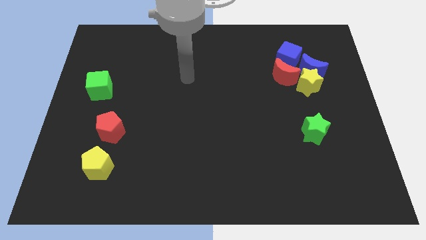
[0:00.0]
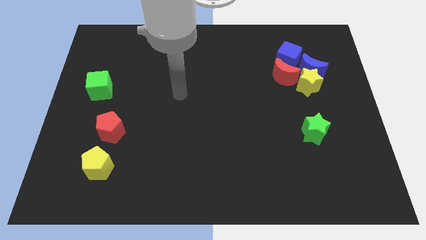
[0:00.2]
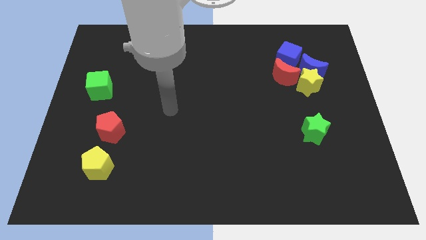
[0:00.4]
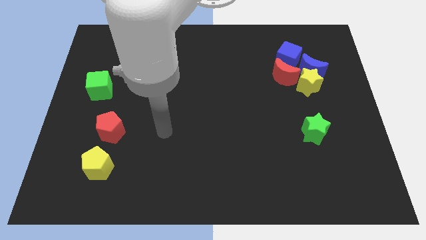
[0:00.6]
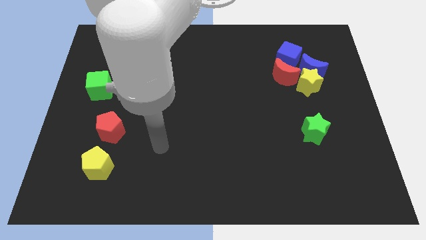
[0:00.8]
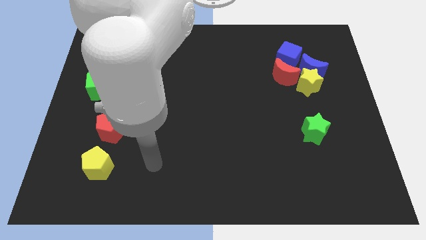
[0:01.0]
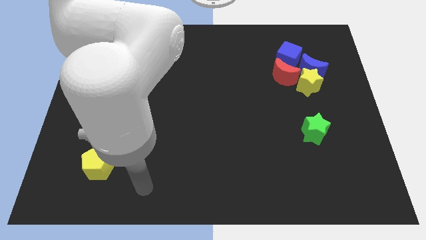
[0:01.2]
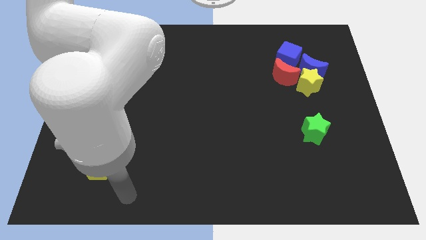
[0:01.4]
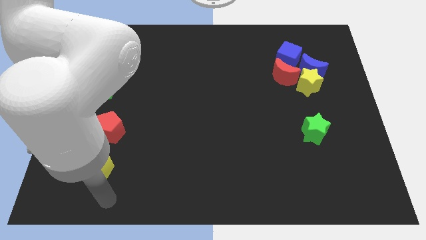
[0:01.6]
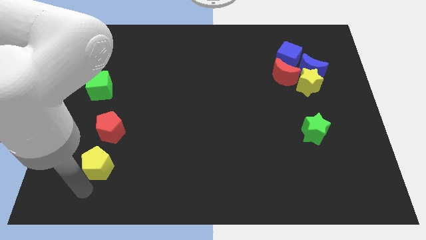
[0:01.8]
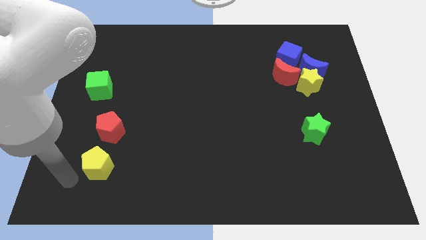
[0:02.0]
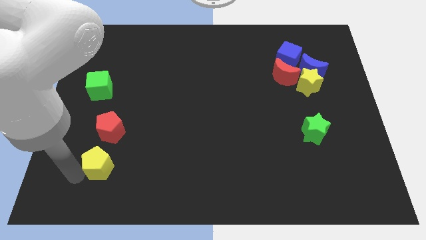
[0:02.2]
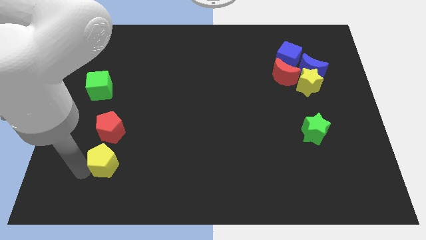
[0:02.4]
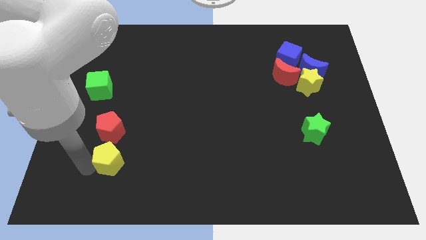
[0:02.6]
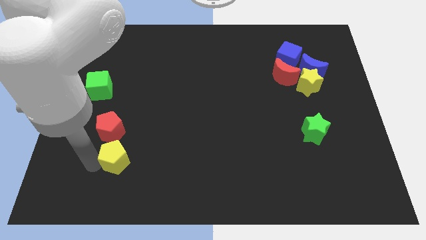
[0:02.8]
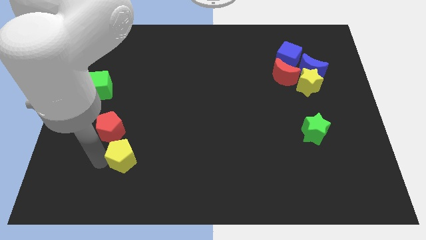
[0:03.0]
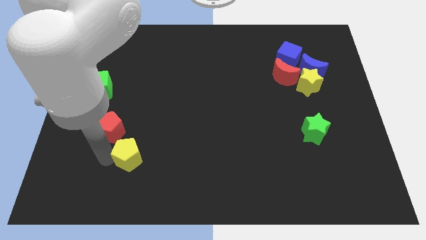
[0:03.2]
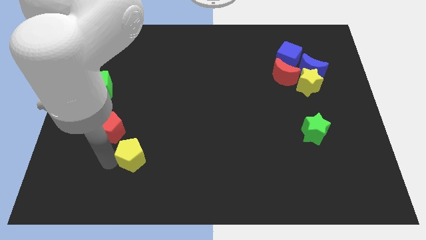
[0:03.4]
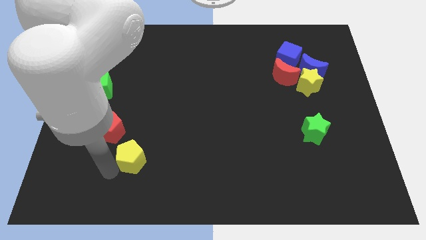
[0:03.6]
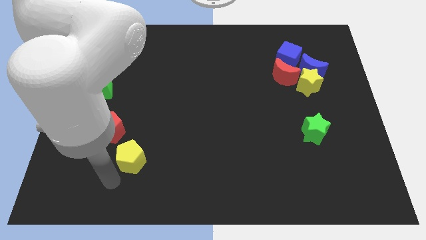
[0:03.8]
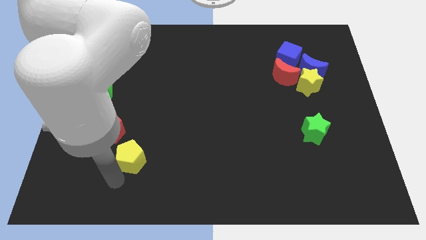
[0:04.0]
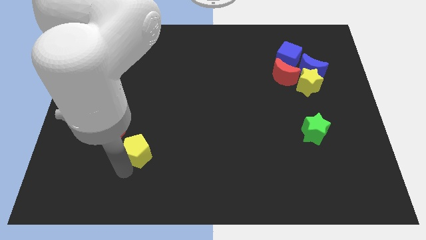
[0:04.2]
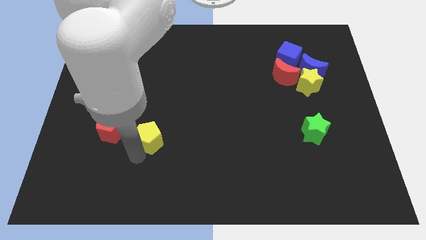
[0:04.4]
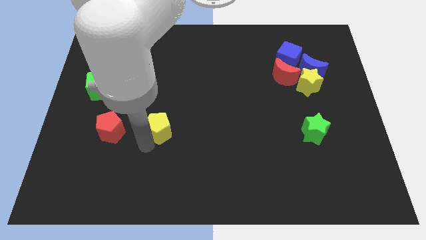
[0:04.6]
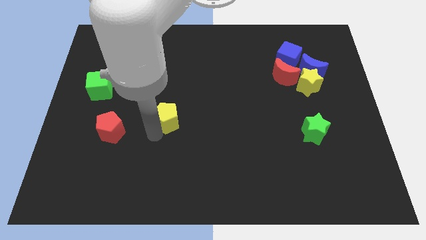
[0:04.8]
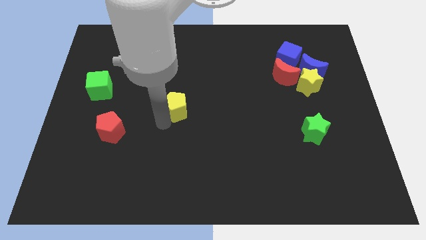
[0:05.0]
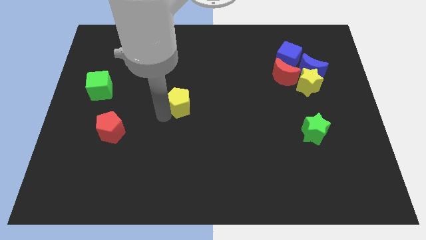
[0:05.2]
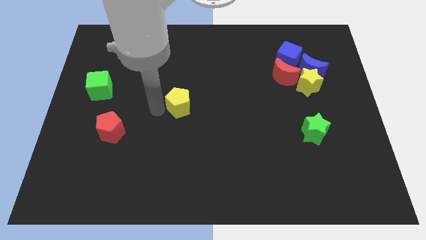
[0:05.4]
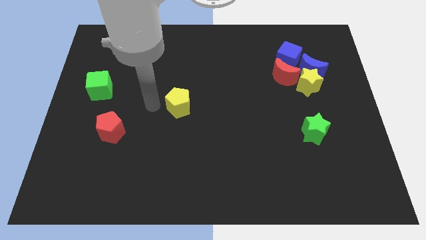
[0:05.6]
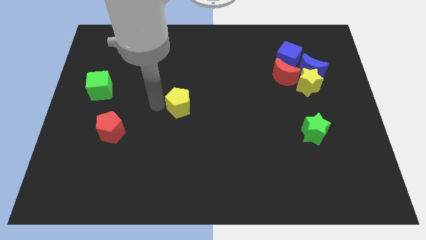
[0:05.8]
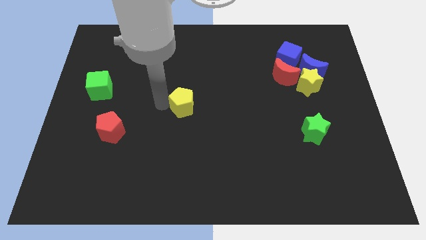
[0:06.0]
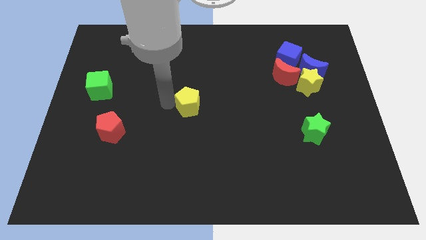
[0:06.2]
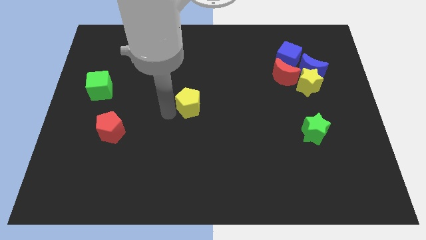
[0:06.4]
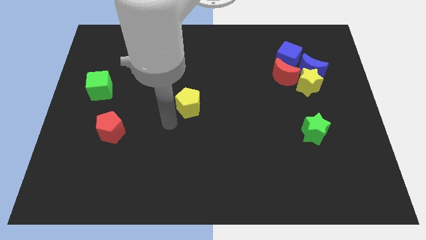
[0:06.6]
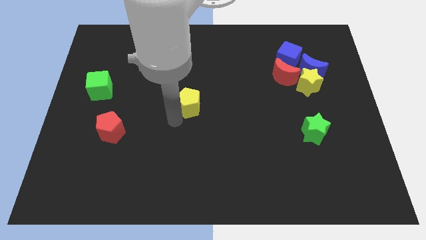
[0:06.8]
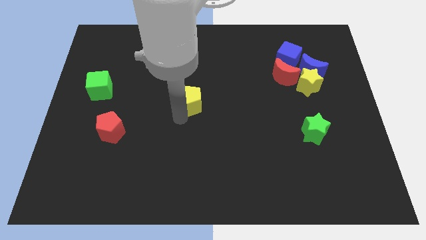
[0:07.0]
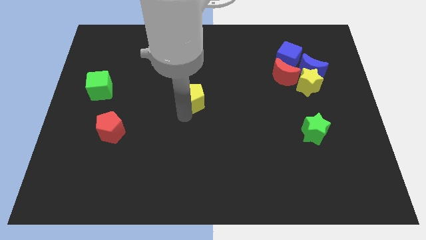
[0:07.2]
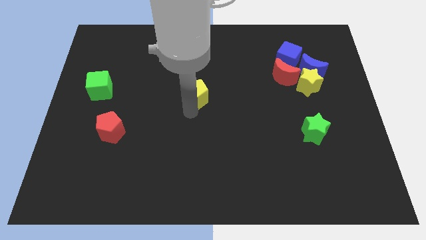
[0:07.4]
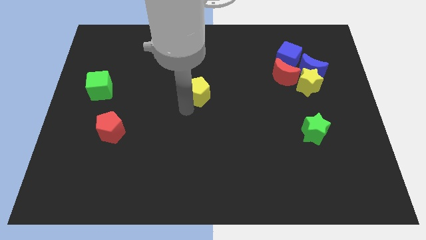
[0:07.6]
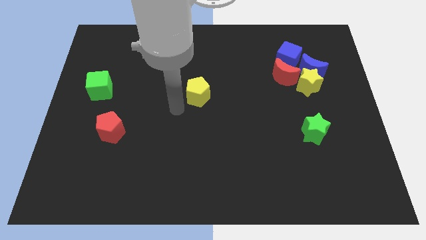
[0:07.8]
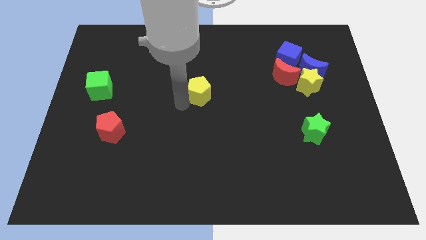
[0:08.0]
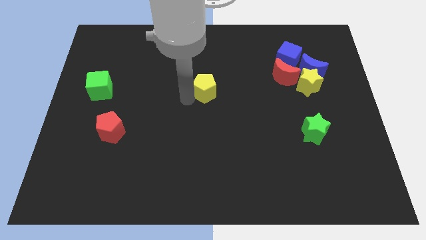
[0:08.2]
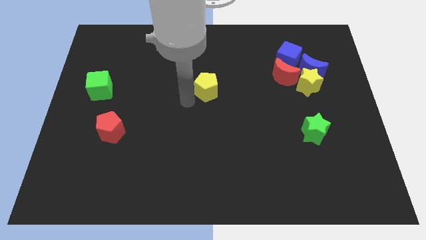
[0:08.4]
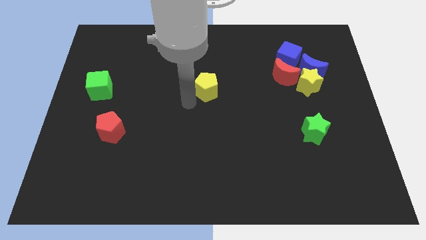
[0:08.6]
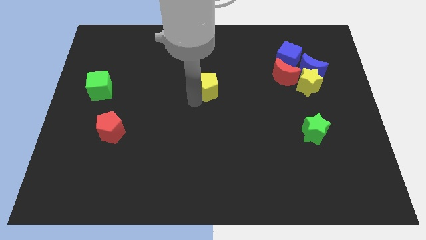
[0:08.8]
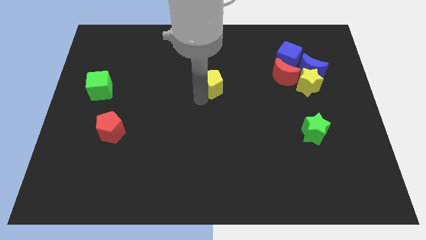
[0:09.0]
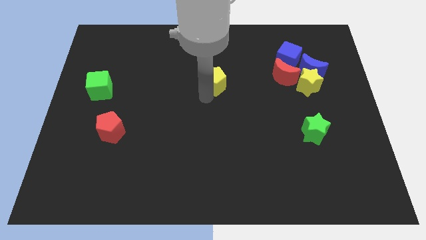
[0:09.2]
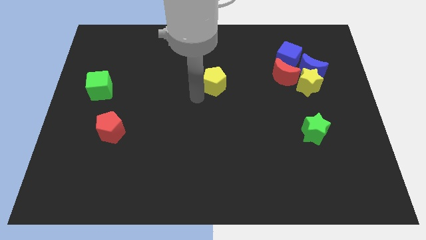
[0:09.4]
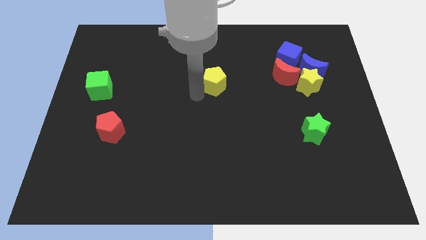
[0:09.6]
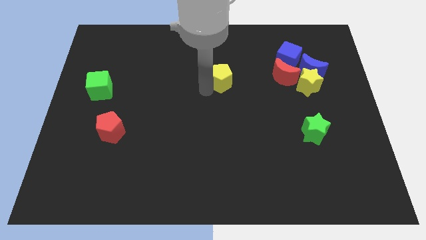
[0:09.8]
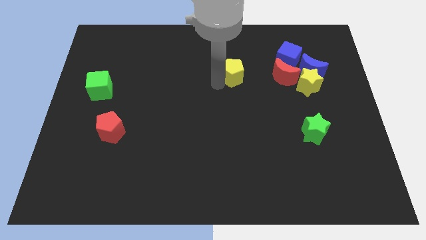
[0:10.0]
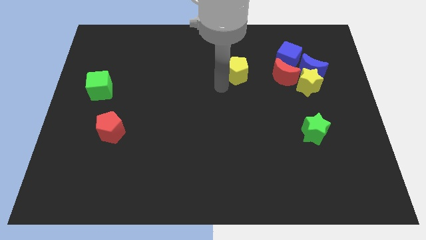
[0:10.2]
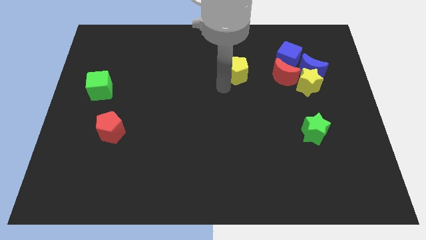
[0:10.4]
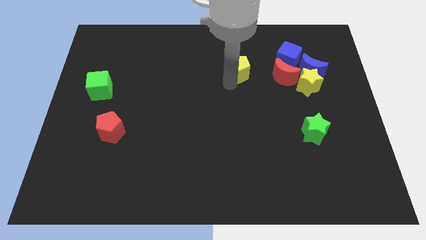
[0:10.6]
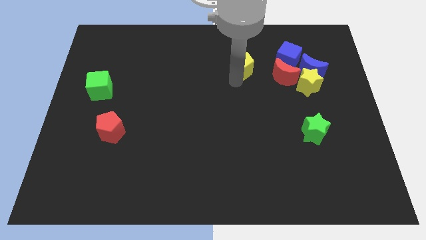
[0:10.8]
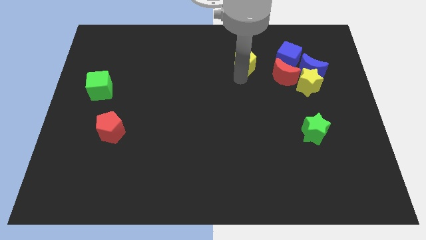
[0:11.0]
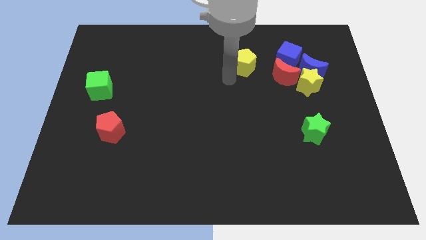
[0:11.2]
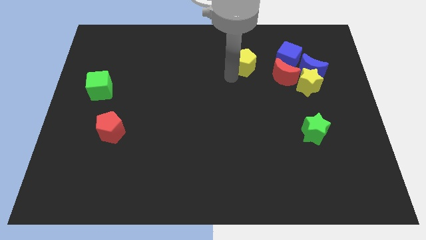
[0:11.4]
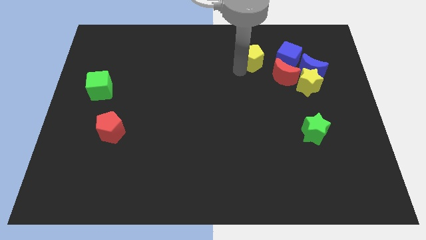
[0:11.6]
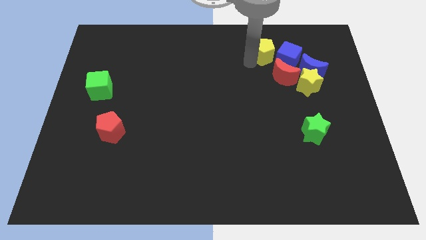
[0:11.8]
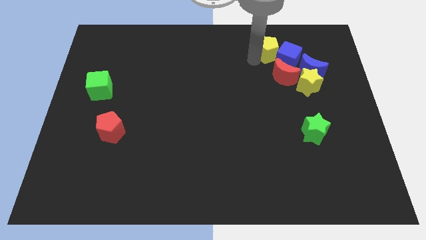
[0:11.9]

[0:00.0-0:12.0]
slide the yellow pentagon to the top left side of the blue moon
